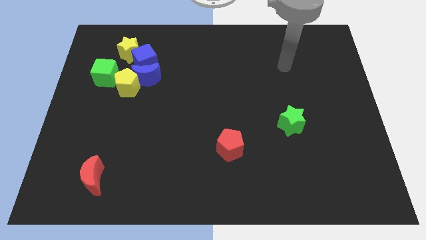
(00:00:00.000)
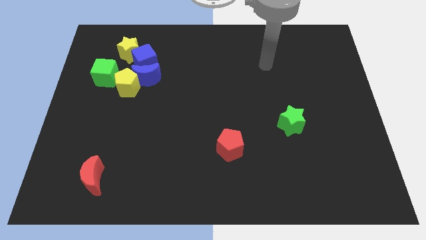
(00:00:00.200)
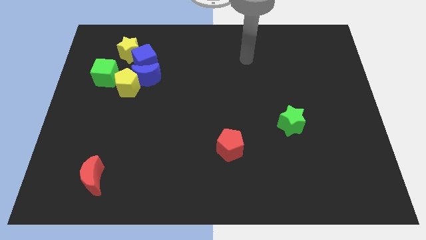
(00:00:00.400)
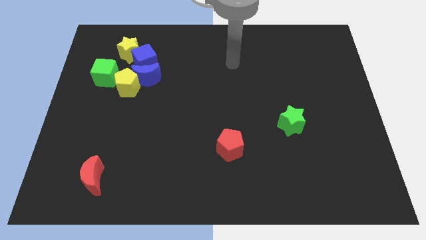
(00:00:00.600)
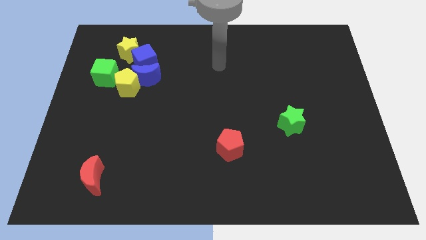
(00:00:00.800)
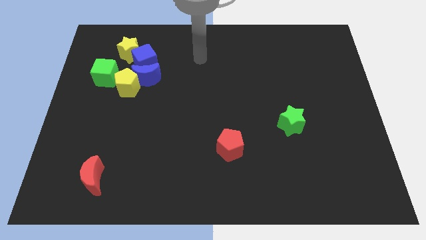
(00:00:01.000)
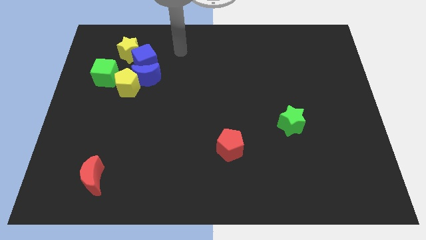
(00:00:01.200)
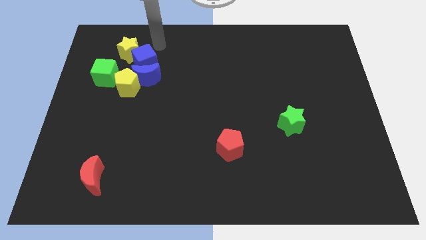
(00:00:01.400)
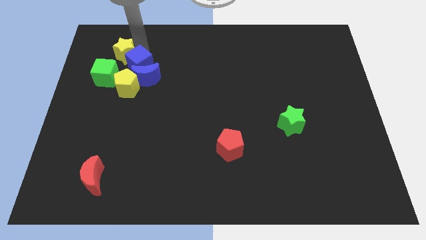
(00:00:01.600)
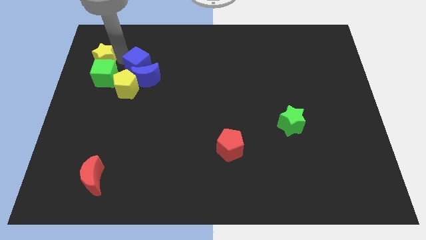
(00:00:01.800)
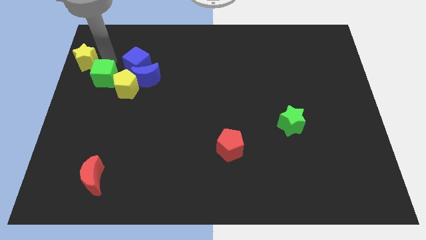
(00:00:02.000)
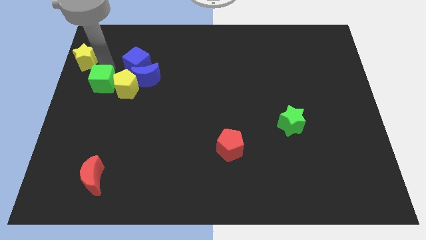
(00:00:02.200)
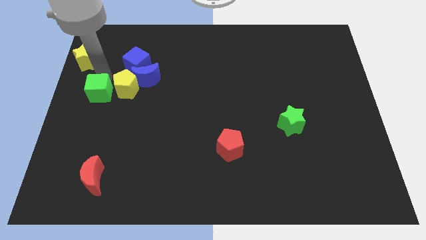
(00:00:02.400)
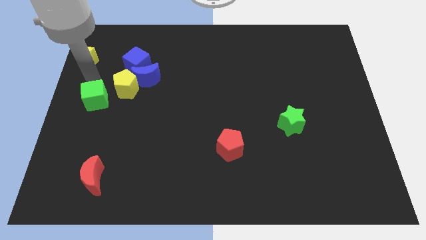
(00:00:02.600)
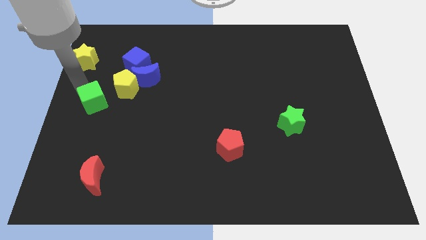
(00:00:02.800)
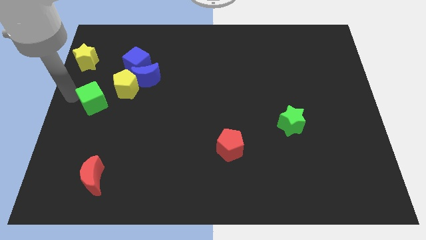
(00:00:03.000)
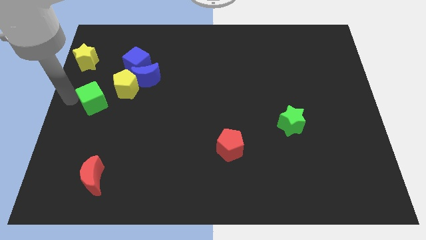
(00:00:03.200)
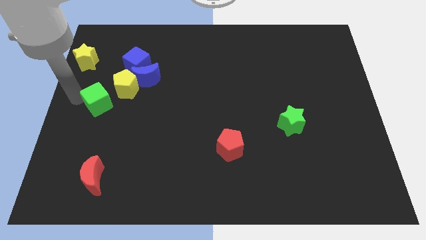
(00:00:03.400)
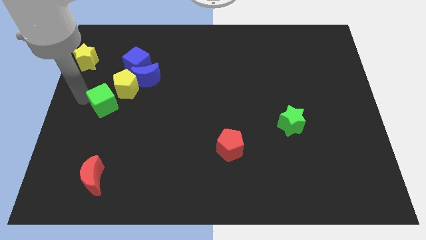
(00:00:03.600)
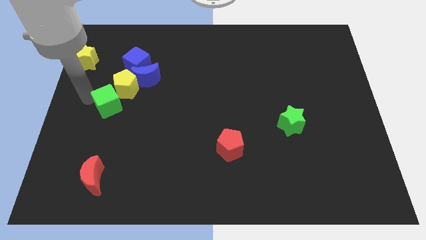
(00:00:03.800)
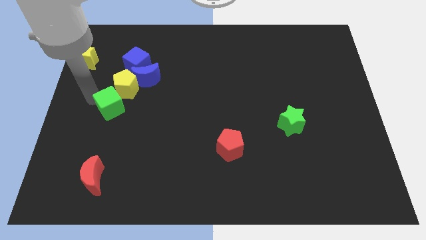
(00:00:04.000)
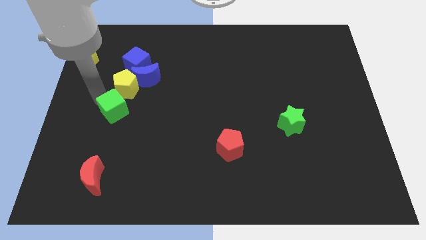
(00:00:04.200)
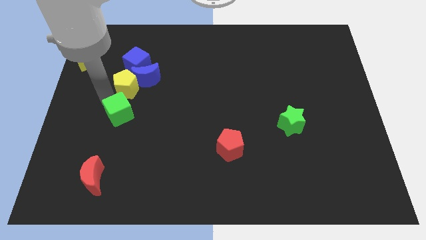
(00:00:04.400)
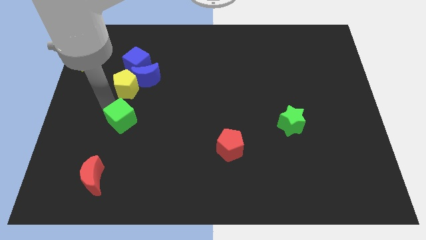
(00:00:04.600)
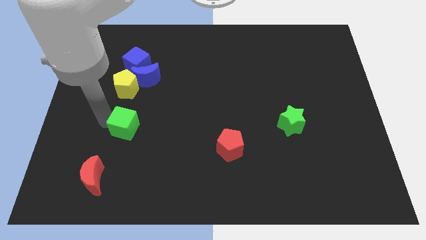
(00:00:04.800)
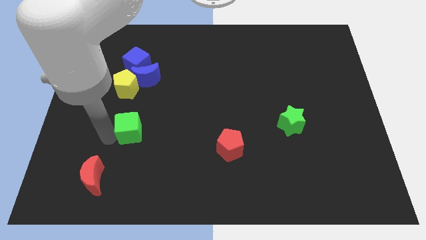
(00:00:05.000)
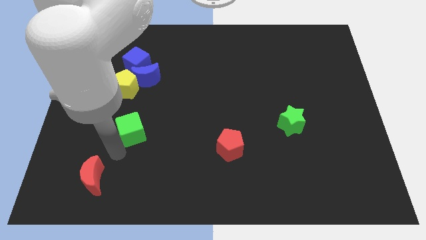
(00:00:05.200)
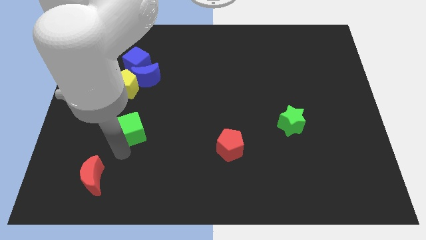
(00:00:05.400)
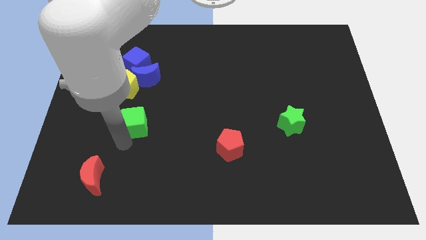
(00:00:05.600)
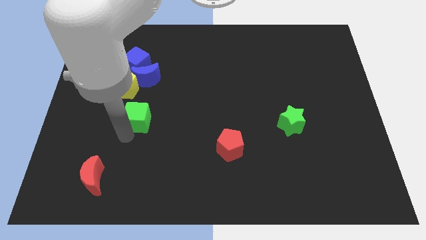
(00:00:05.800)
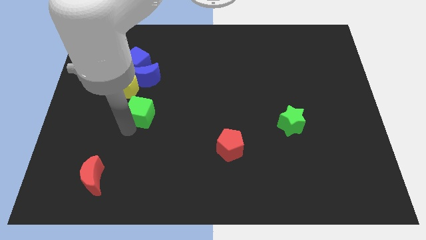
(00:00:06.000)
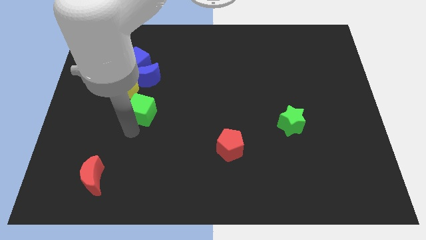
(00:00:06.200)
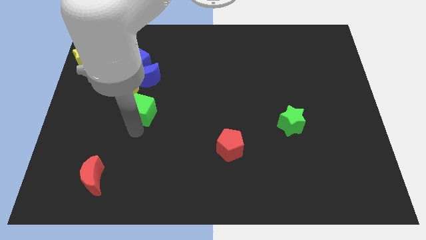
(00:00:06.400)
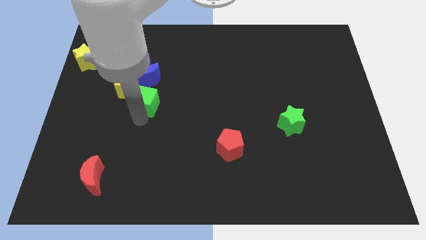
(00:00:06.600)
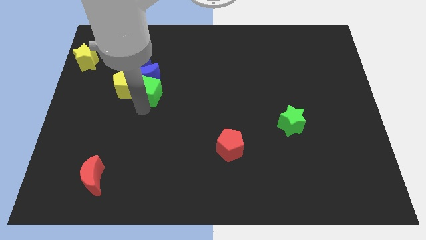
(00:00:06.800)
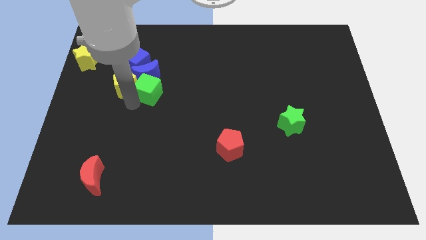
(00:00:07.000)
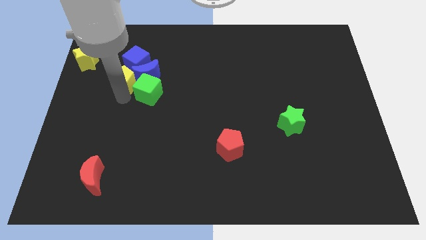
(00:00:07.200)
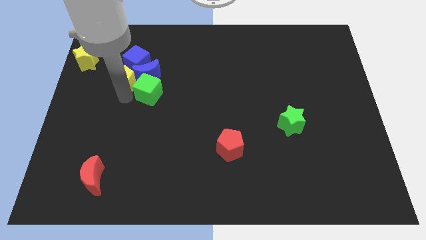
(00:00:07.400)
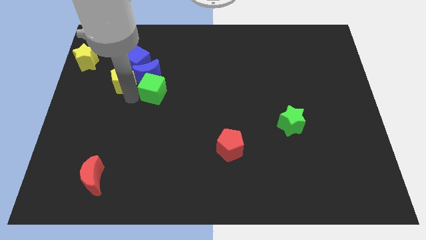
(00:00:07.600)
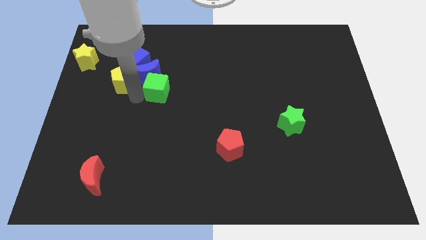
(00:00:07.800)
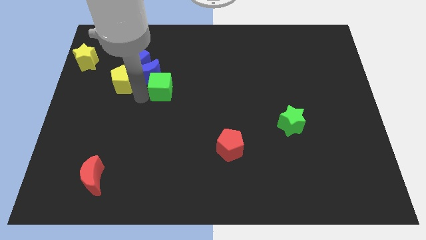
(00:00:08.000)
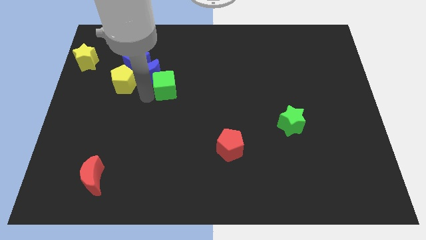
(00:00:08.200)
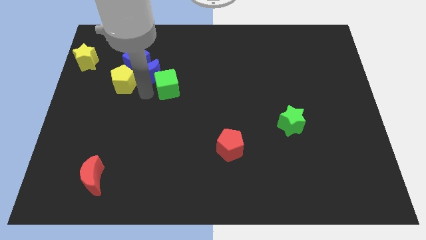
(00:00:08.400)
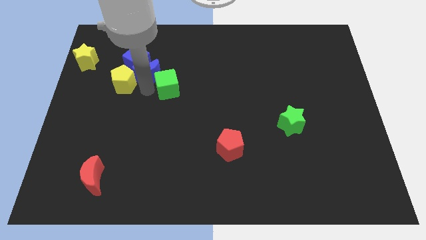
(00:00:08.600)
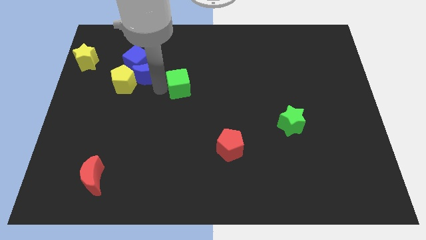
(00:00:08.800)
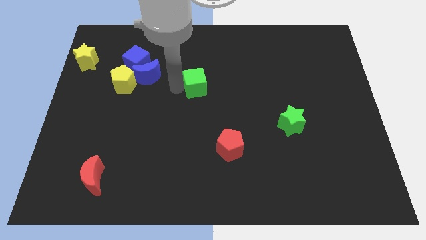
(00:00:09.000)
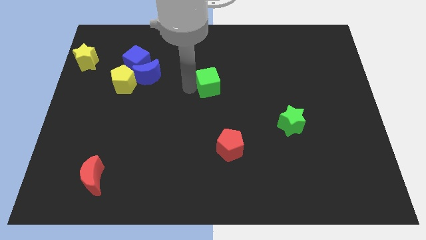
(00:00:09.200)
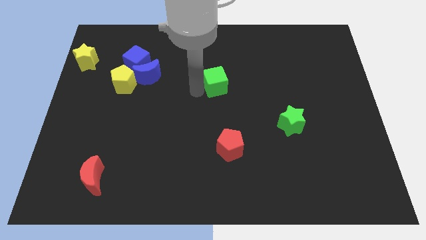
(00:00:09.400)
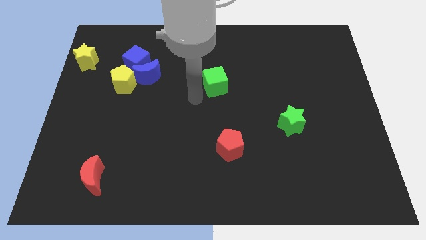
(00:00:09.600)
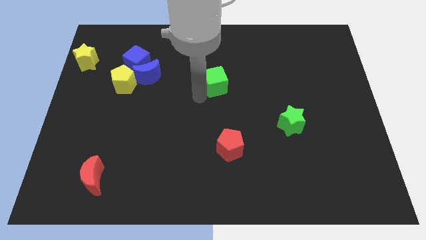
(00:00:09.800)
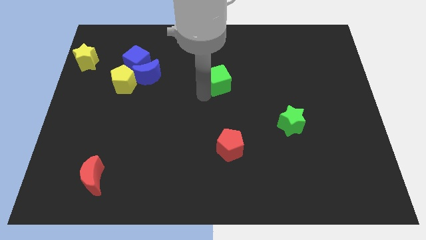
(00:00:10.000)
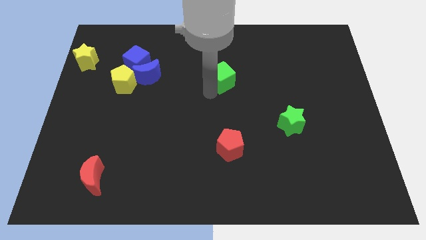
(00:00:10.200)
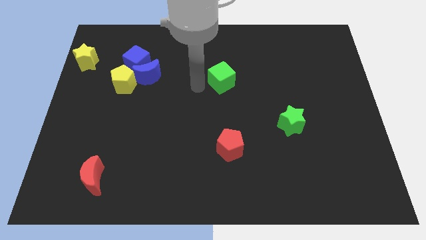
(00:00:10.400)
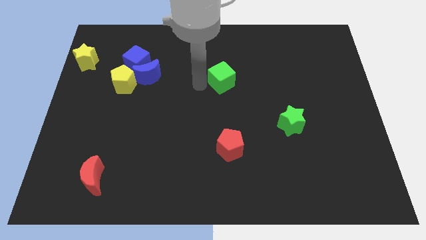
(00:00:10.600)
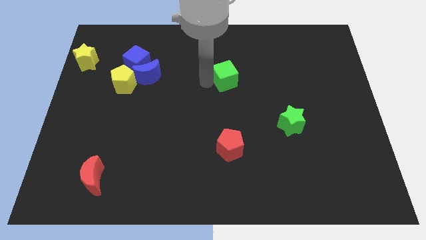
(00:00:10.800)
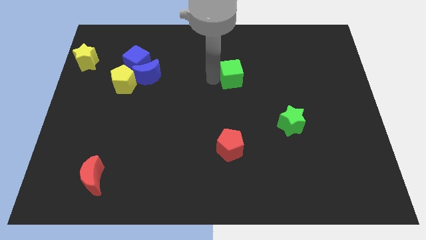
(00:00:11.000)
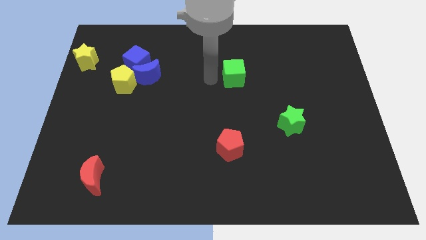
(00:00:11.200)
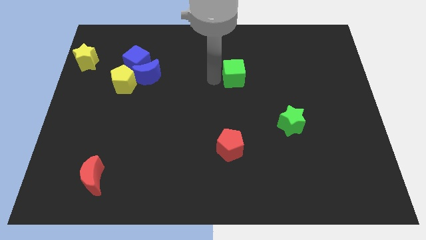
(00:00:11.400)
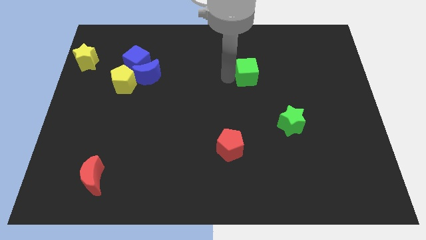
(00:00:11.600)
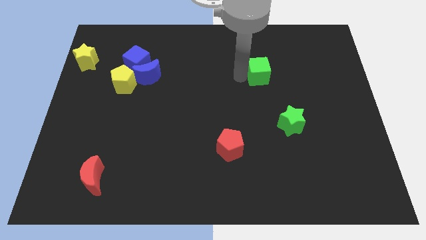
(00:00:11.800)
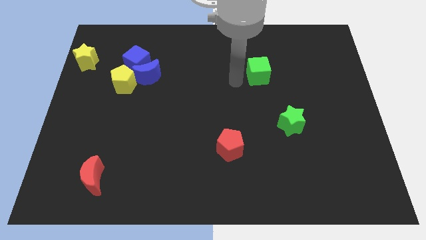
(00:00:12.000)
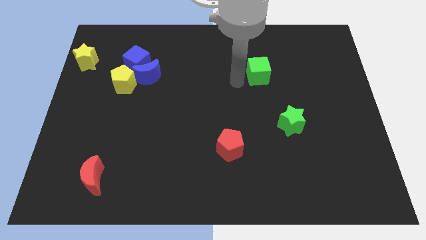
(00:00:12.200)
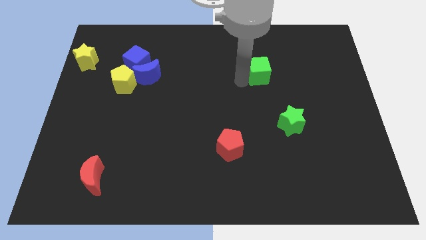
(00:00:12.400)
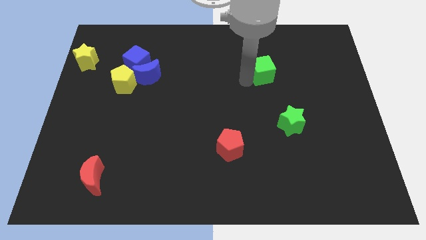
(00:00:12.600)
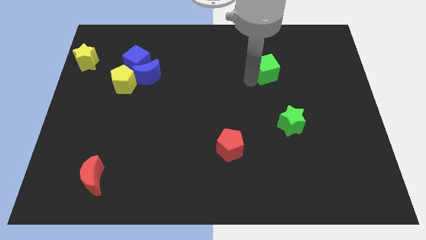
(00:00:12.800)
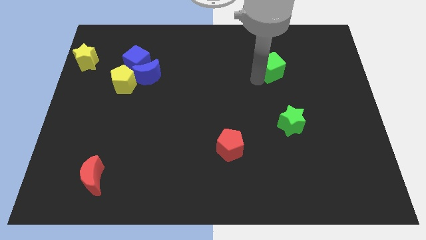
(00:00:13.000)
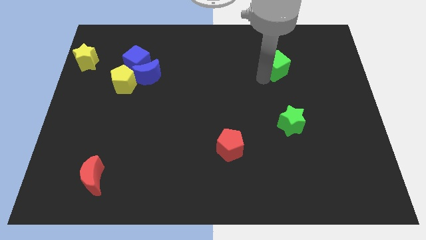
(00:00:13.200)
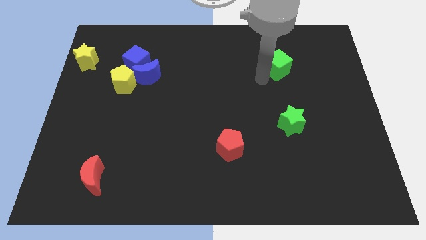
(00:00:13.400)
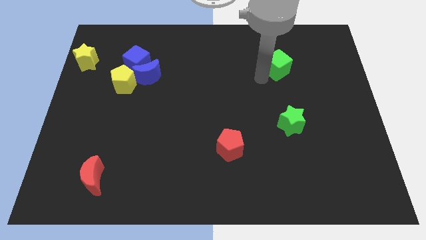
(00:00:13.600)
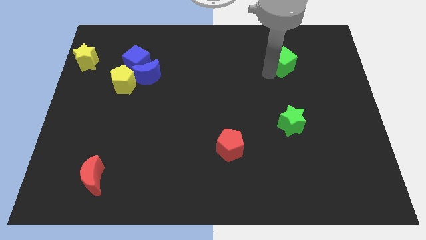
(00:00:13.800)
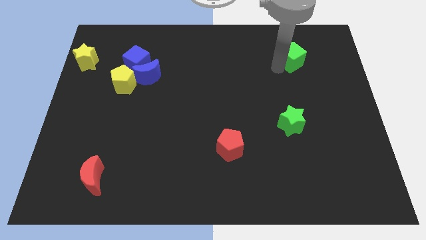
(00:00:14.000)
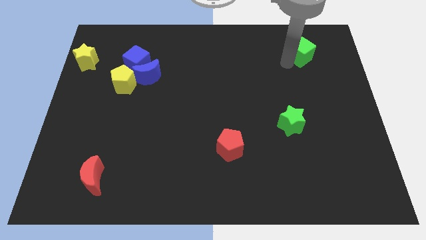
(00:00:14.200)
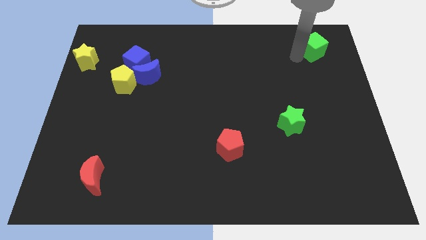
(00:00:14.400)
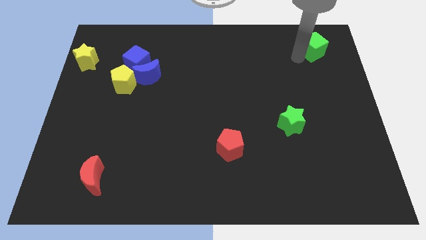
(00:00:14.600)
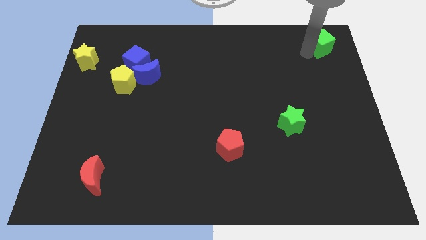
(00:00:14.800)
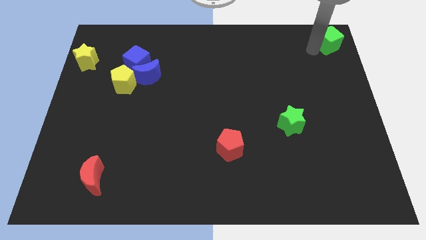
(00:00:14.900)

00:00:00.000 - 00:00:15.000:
push the green cube to the upper right corner

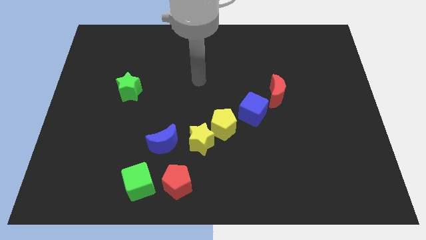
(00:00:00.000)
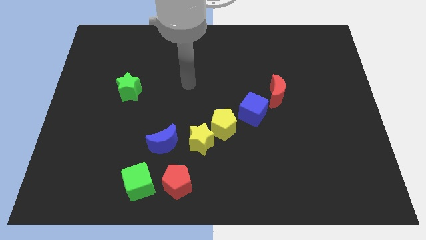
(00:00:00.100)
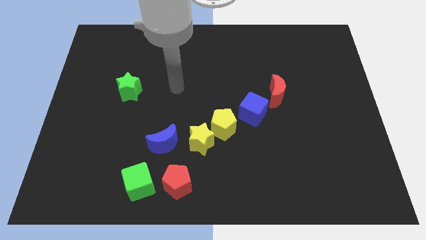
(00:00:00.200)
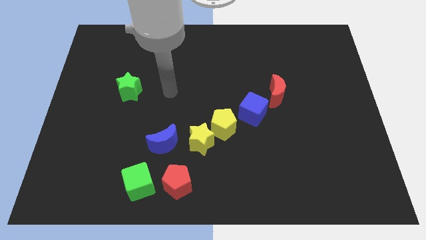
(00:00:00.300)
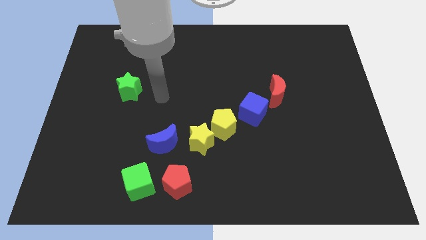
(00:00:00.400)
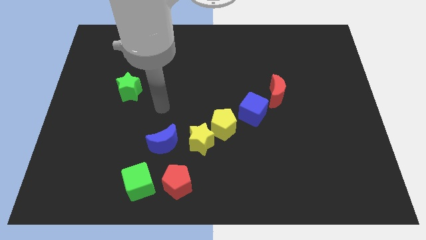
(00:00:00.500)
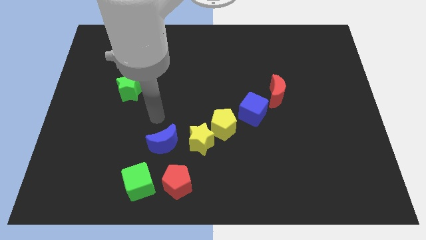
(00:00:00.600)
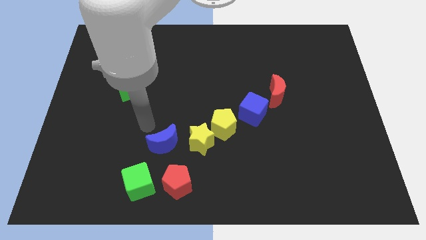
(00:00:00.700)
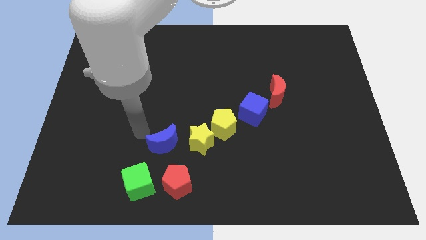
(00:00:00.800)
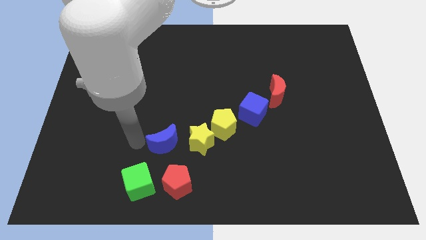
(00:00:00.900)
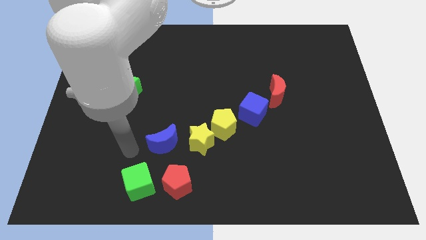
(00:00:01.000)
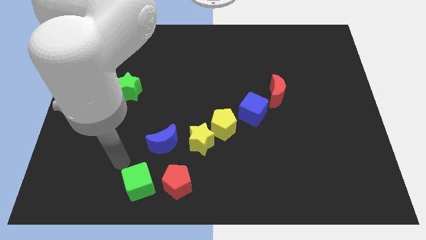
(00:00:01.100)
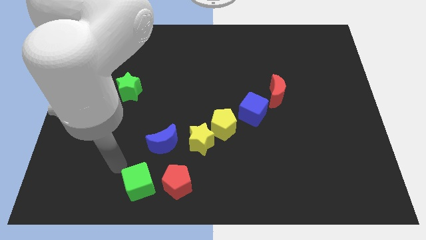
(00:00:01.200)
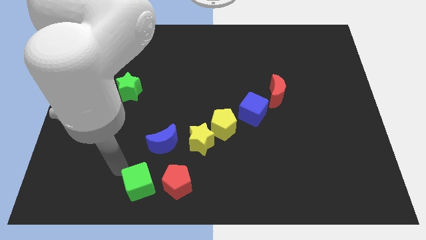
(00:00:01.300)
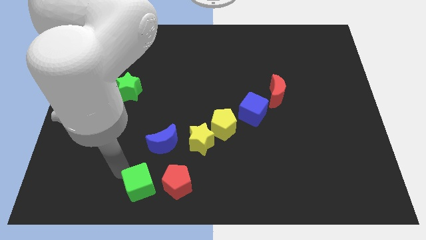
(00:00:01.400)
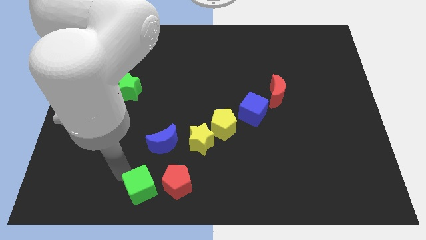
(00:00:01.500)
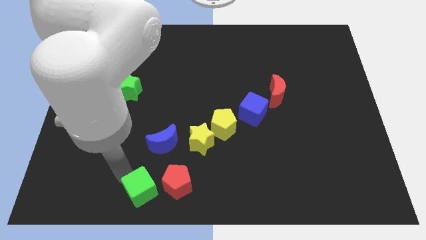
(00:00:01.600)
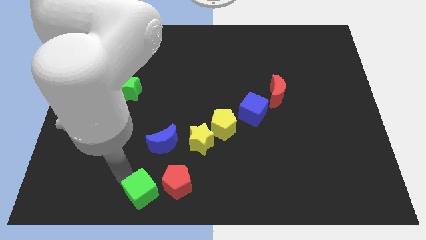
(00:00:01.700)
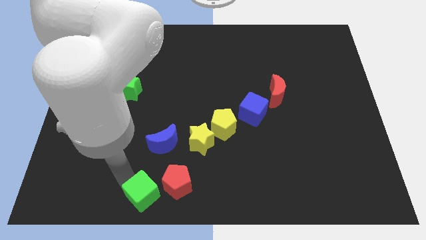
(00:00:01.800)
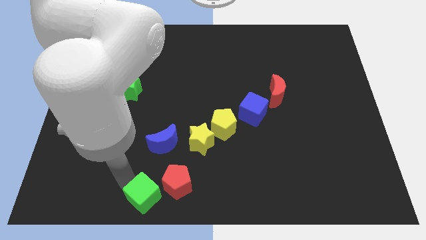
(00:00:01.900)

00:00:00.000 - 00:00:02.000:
push the green cube to the bottom
